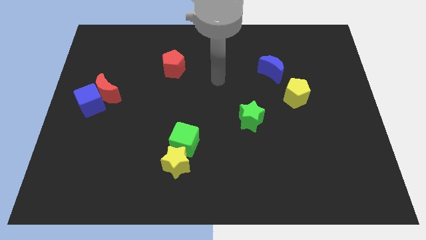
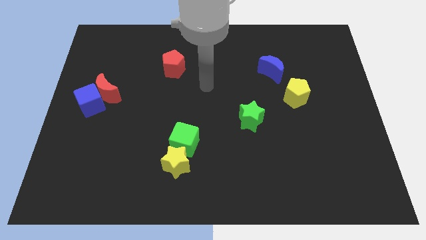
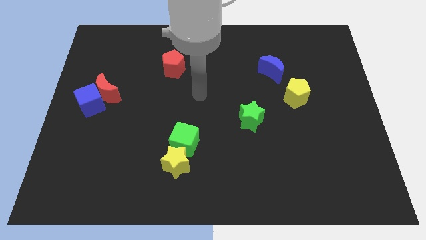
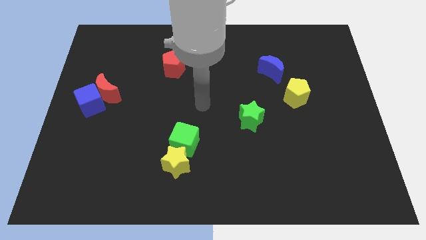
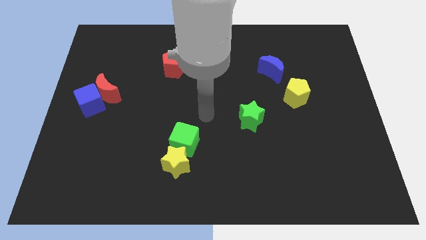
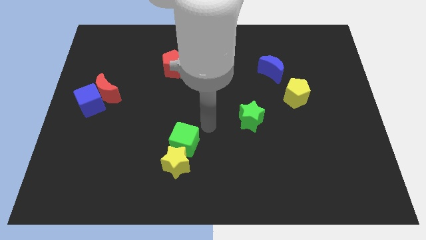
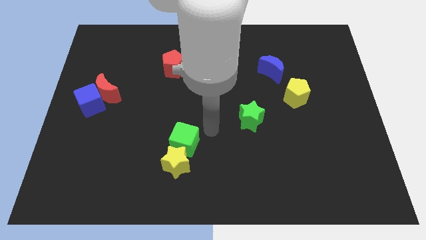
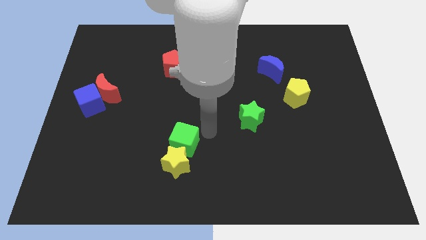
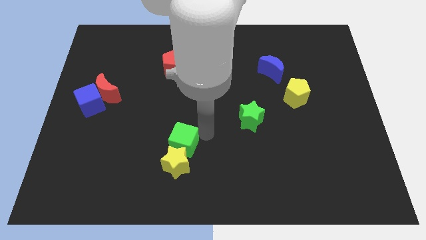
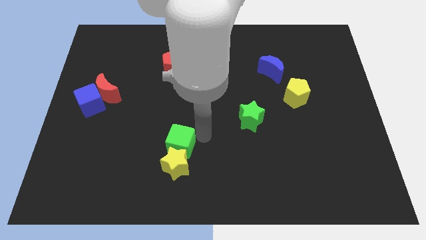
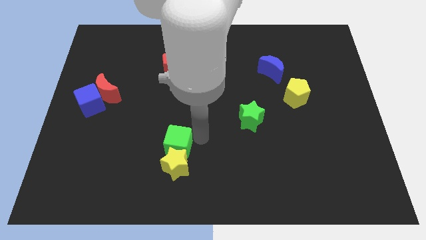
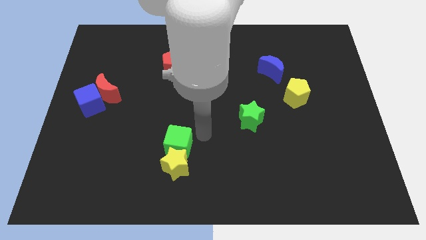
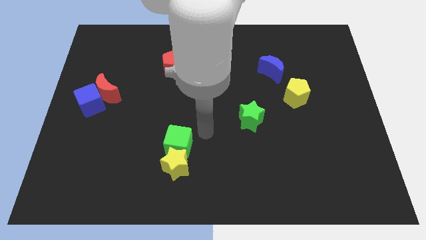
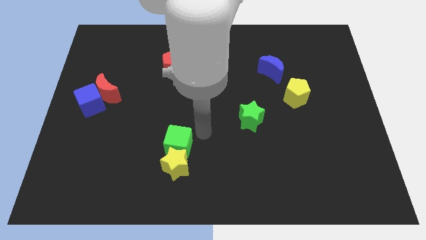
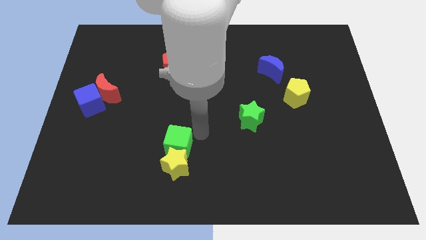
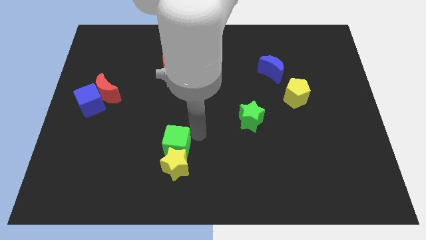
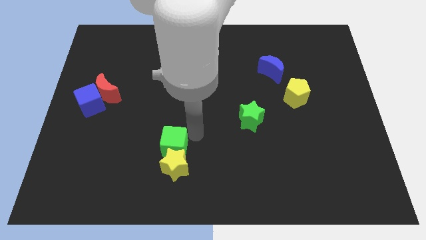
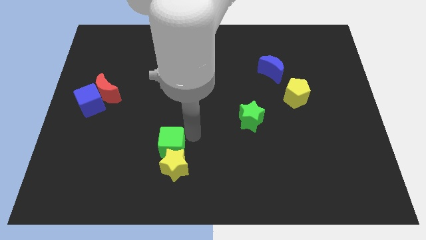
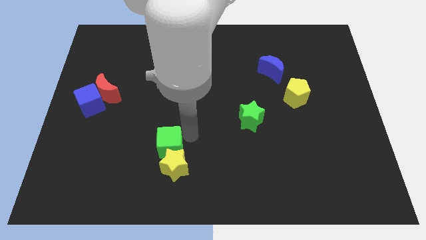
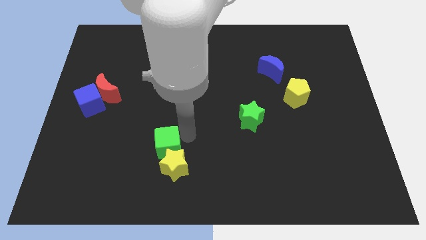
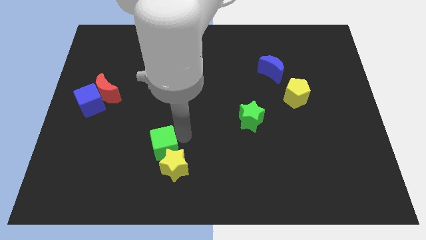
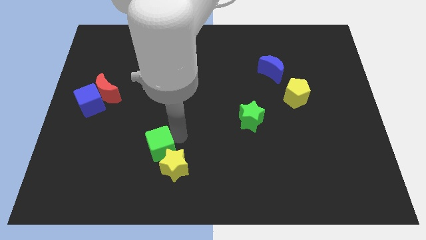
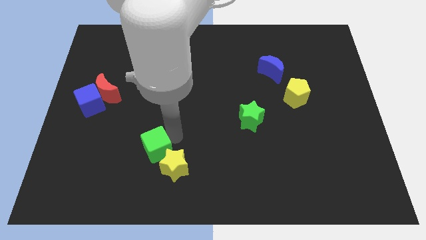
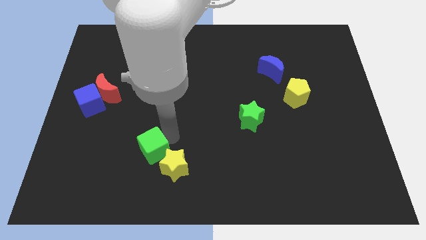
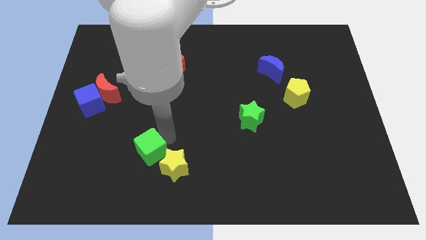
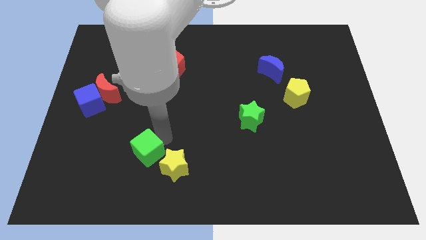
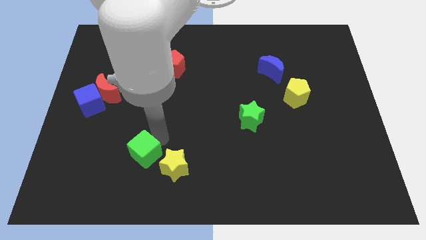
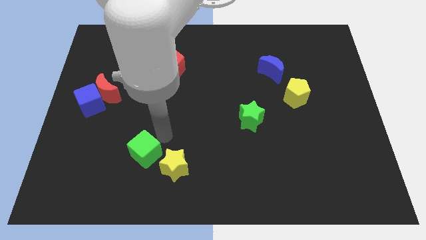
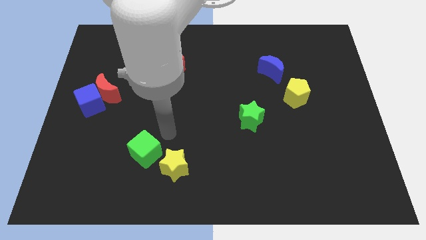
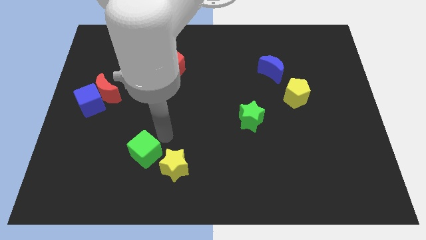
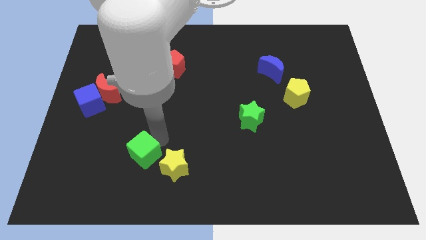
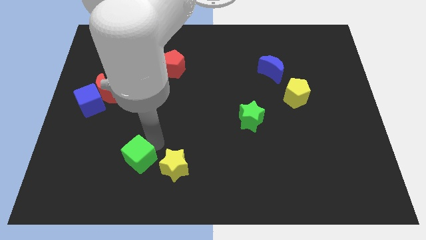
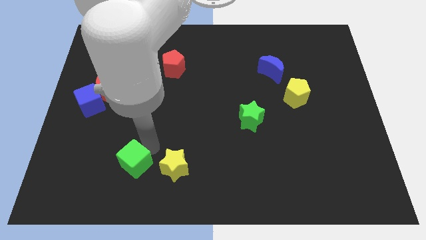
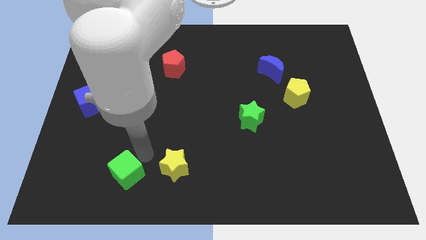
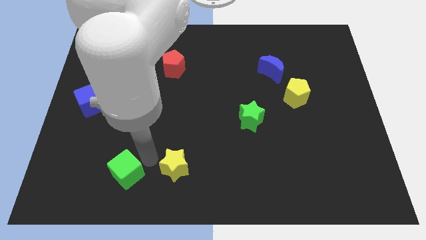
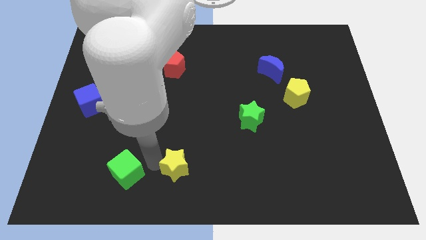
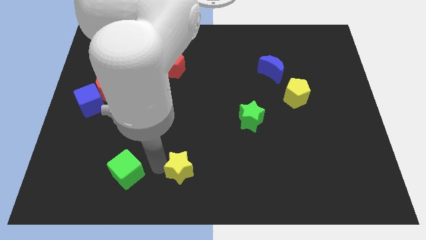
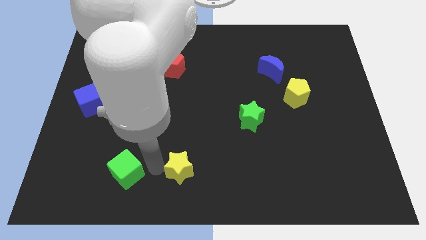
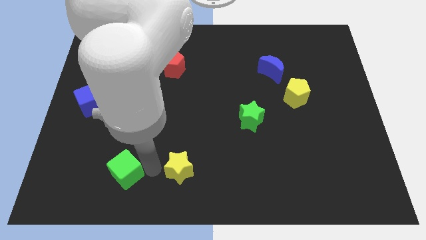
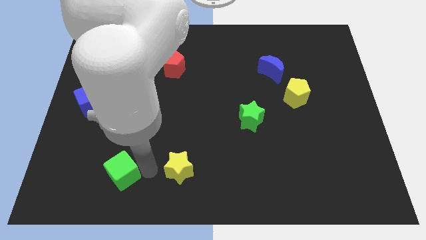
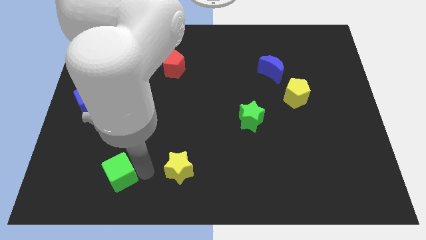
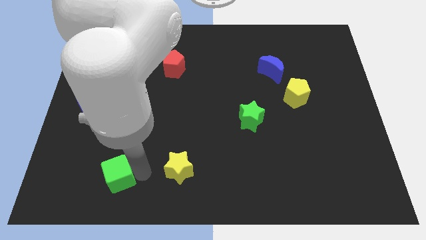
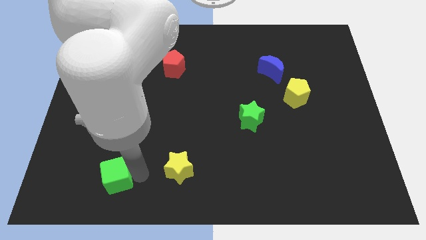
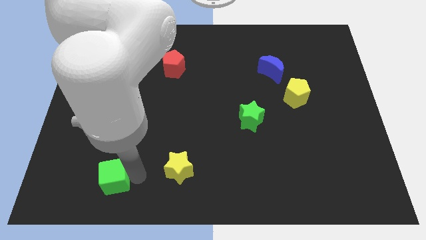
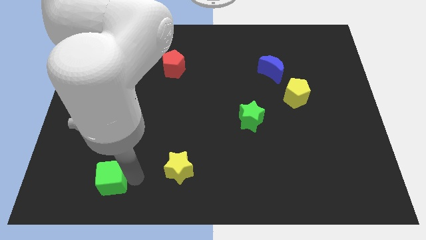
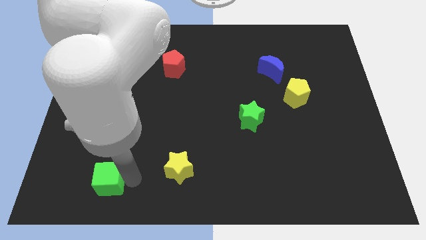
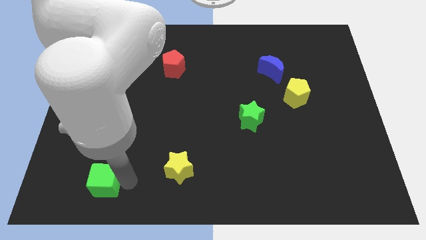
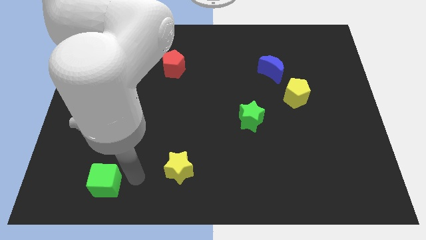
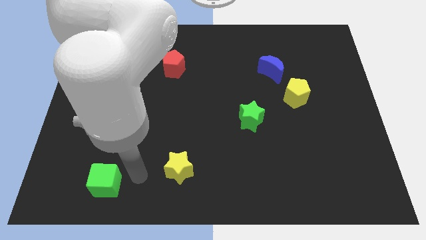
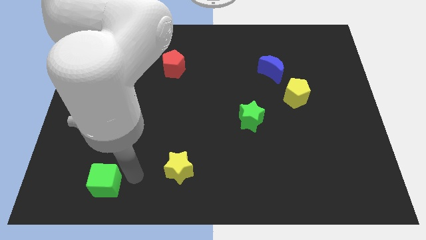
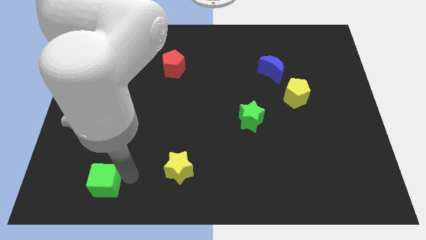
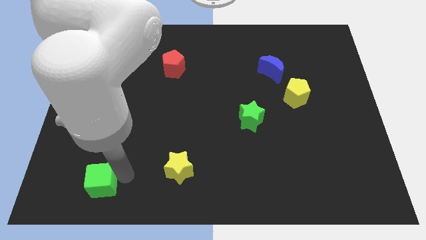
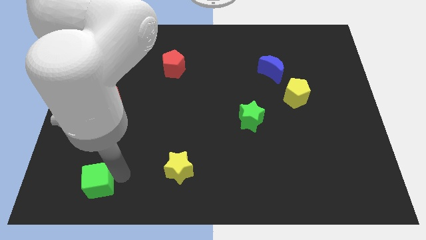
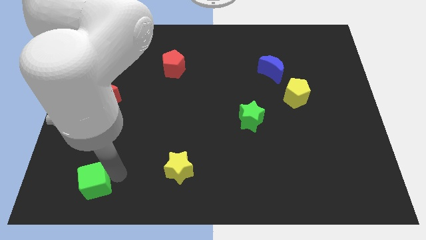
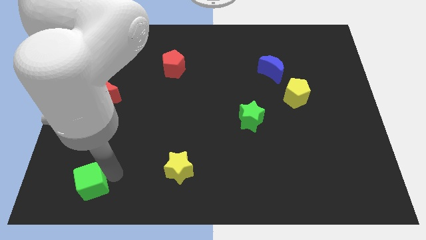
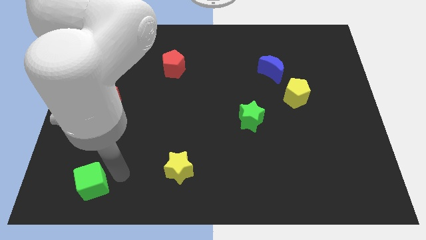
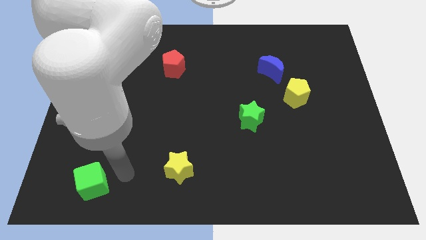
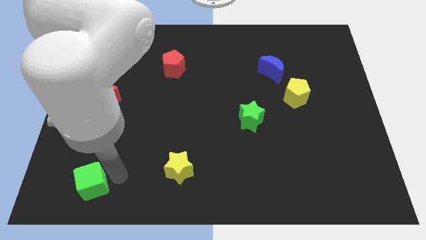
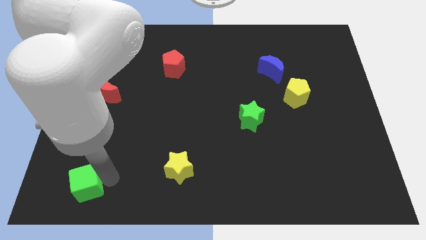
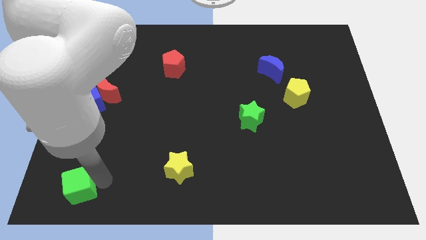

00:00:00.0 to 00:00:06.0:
slide the green cube to the bottom left corner
